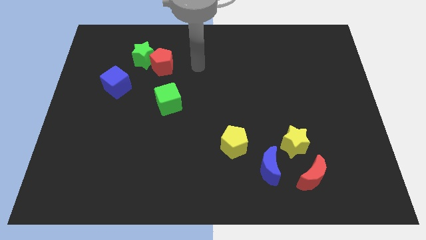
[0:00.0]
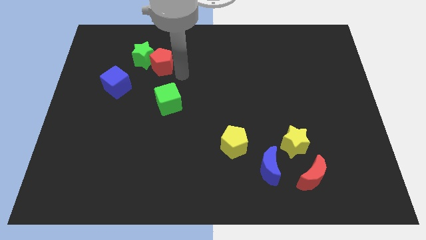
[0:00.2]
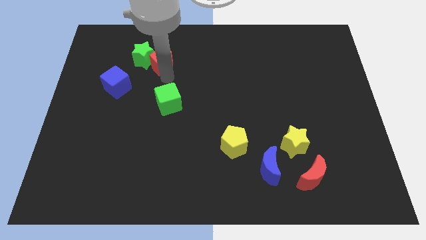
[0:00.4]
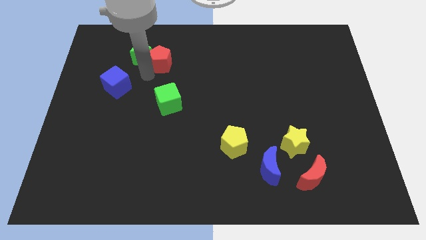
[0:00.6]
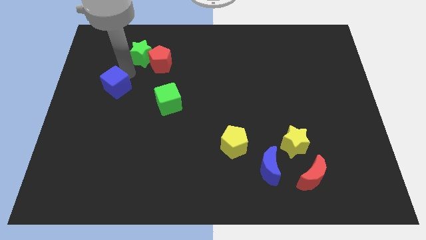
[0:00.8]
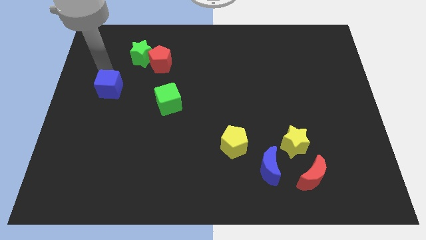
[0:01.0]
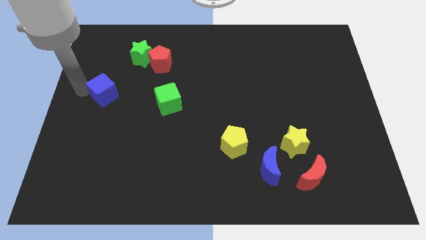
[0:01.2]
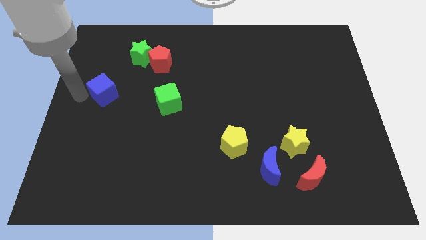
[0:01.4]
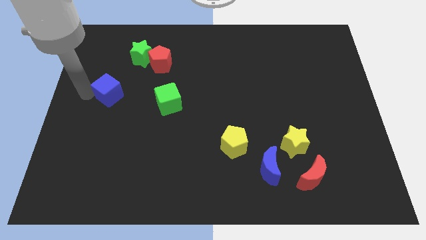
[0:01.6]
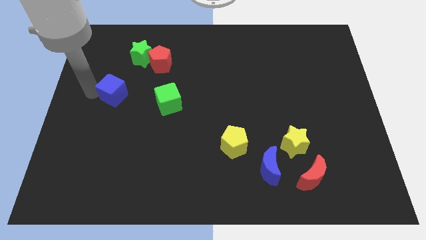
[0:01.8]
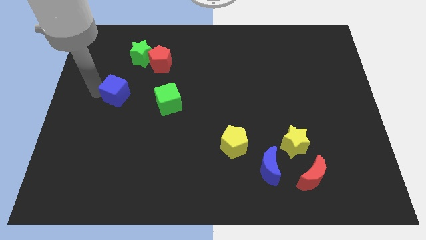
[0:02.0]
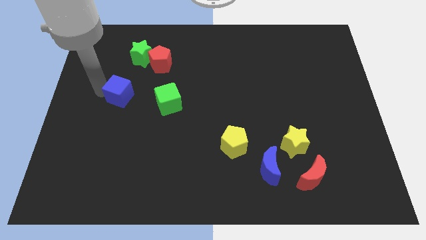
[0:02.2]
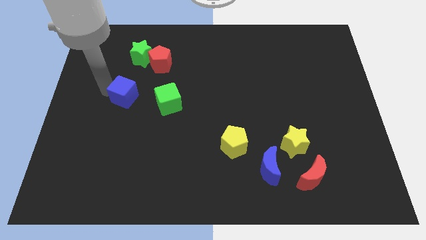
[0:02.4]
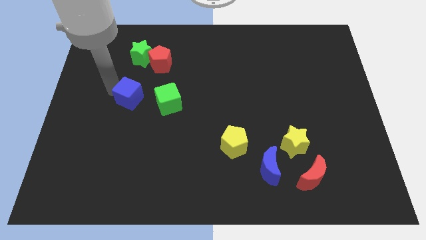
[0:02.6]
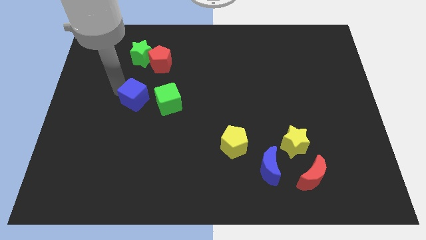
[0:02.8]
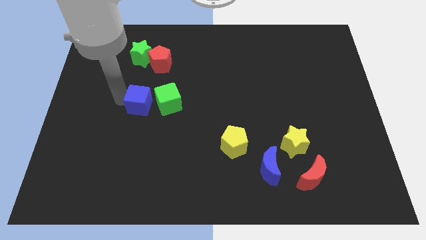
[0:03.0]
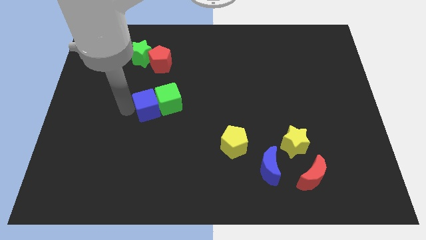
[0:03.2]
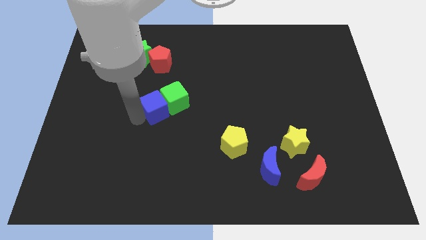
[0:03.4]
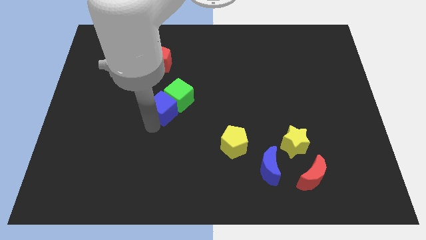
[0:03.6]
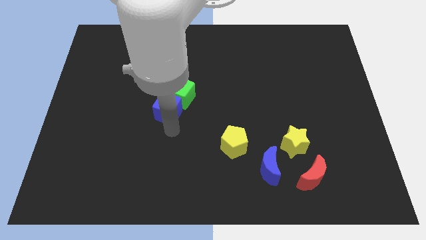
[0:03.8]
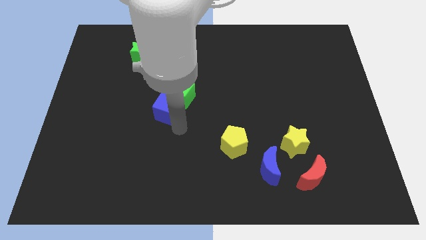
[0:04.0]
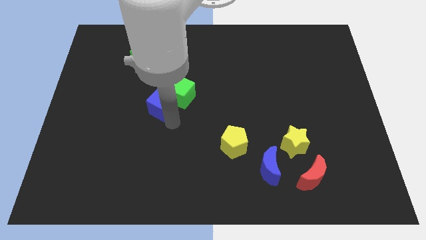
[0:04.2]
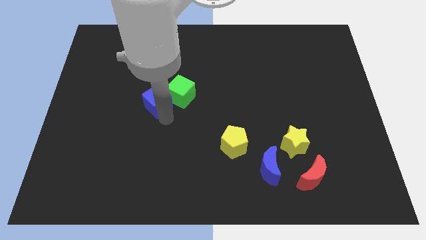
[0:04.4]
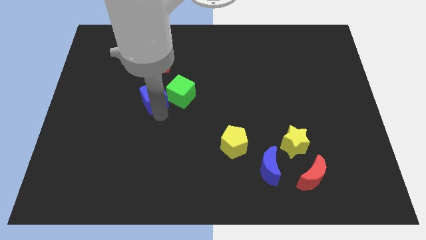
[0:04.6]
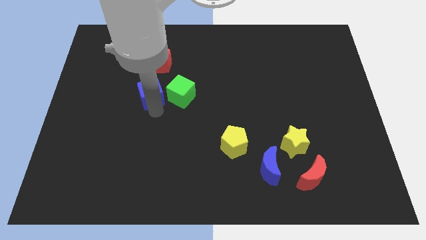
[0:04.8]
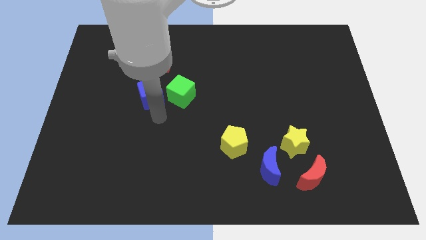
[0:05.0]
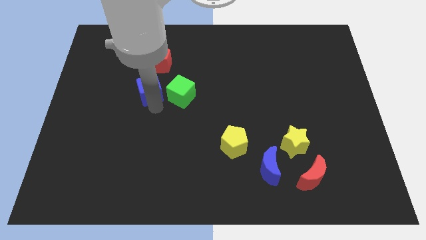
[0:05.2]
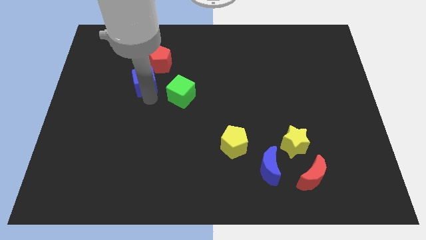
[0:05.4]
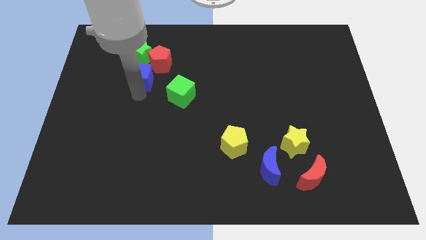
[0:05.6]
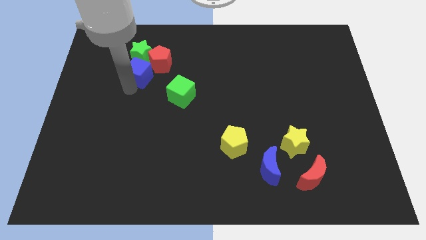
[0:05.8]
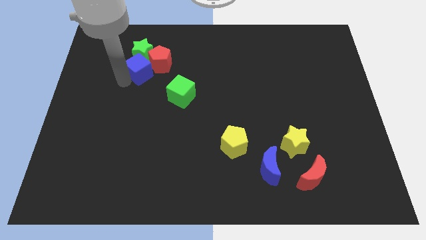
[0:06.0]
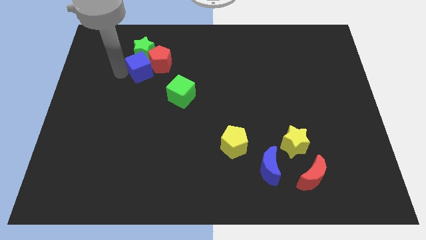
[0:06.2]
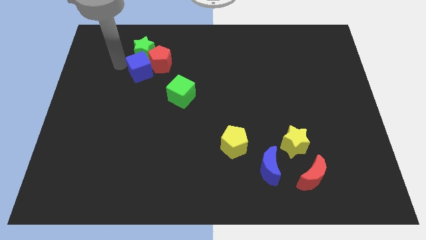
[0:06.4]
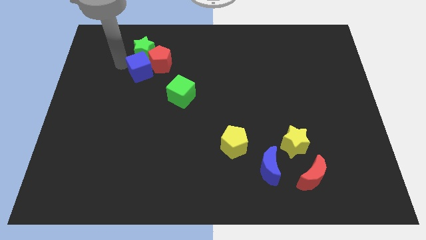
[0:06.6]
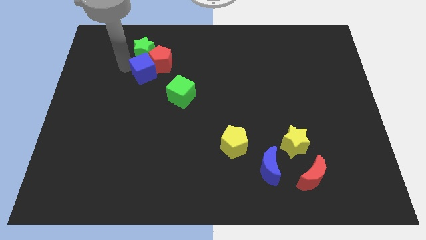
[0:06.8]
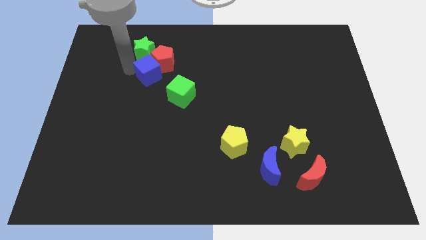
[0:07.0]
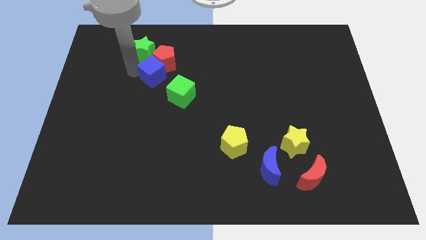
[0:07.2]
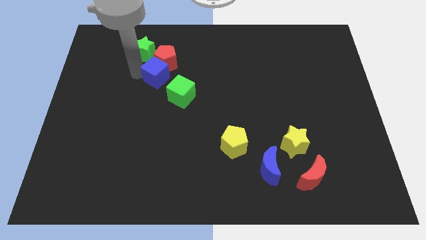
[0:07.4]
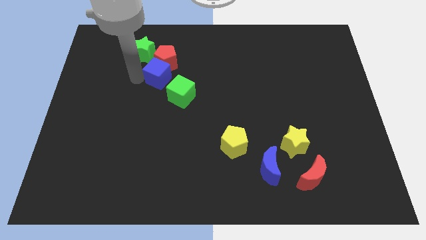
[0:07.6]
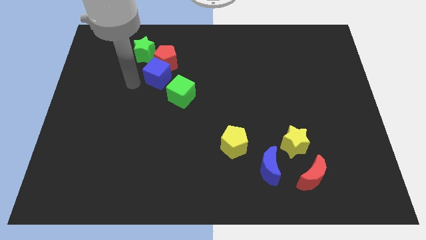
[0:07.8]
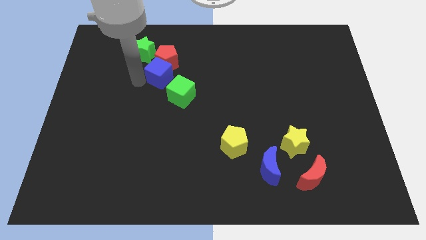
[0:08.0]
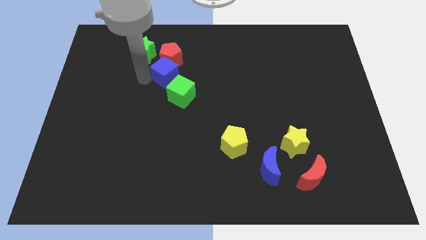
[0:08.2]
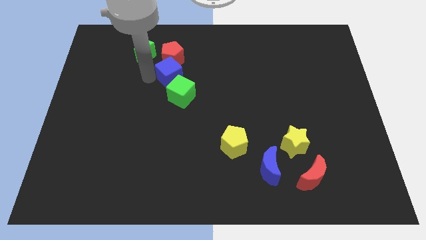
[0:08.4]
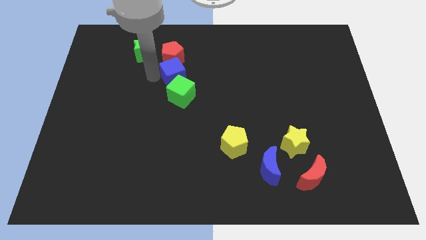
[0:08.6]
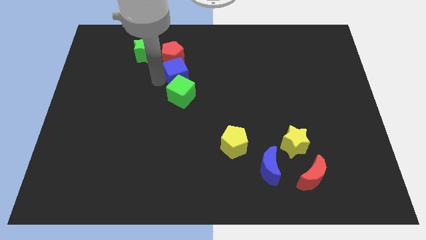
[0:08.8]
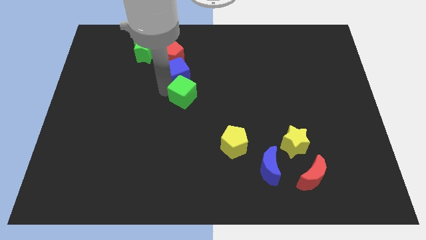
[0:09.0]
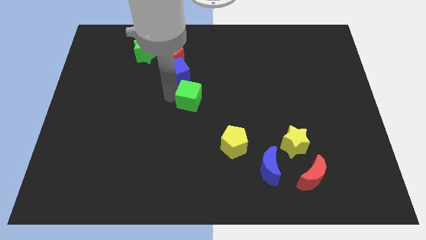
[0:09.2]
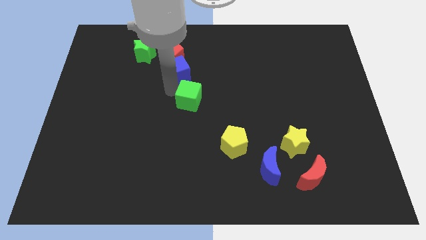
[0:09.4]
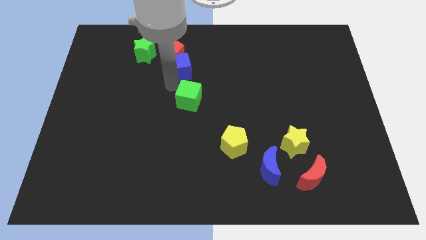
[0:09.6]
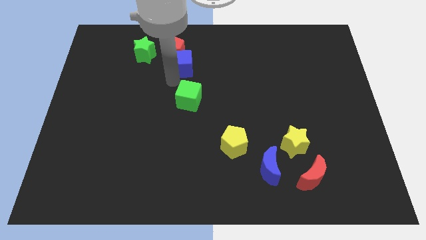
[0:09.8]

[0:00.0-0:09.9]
push the blue cube just right of the green star

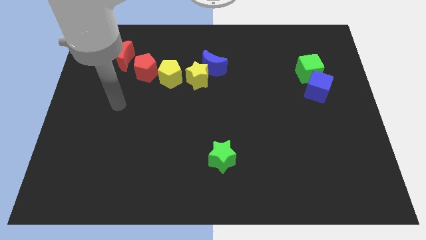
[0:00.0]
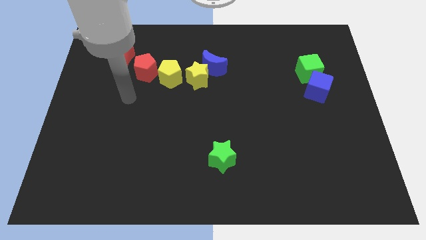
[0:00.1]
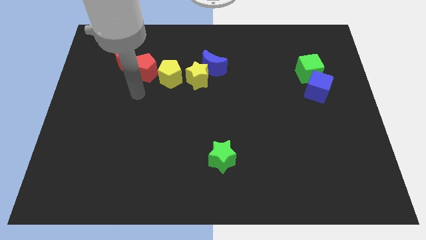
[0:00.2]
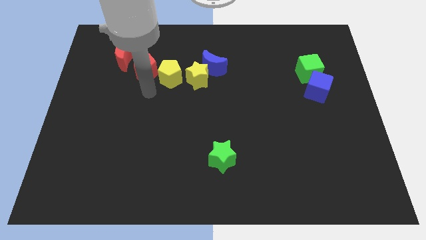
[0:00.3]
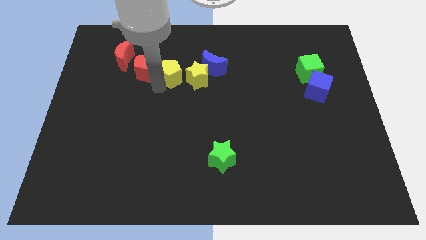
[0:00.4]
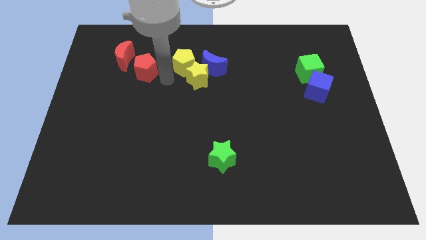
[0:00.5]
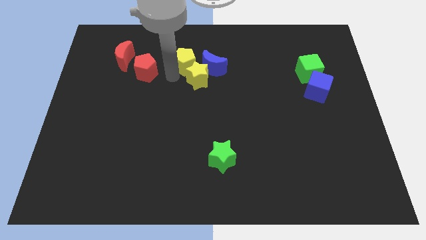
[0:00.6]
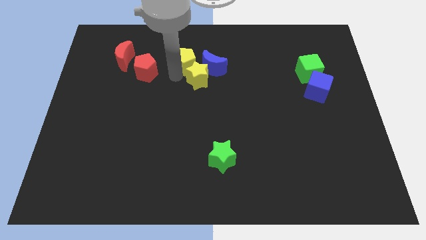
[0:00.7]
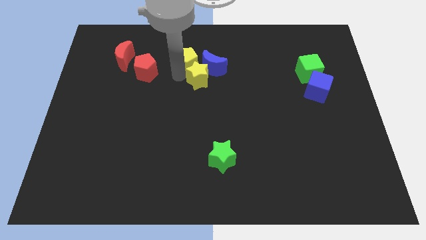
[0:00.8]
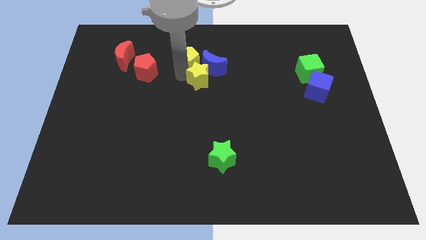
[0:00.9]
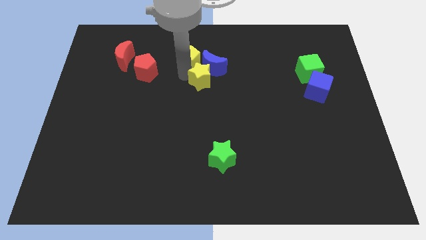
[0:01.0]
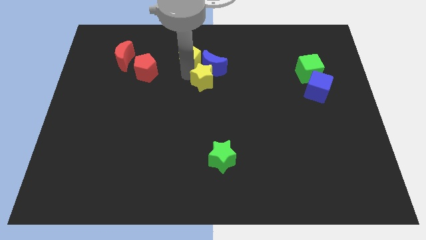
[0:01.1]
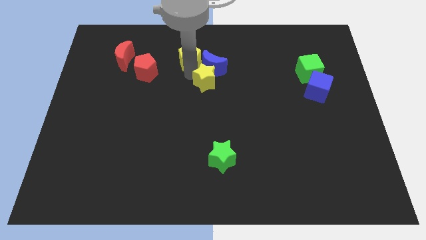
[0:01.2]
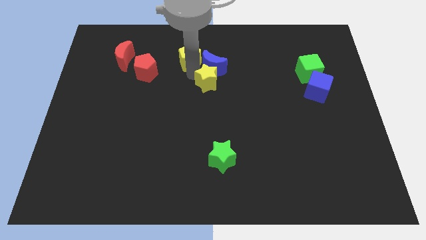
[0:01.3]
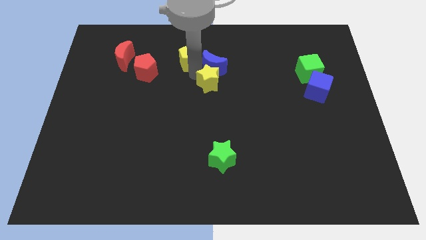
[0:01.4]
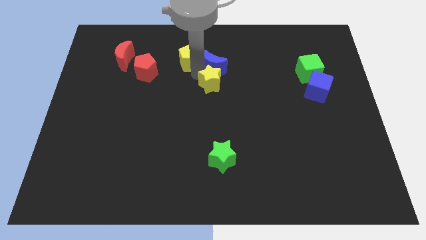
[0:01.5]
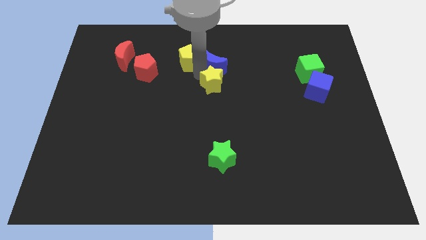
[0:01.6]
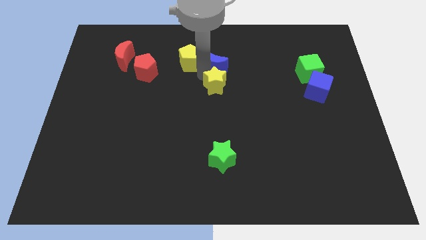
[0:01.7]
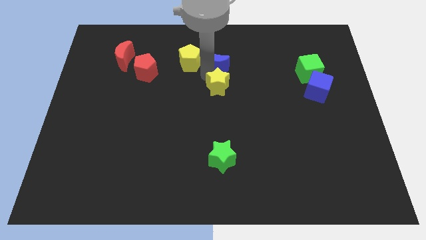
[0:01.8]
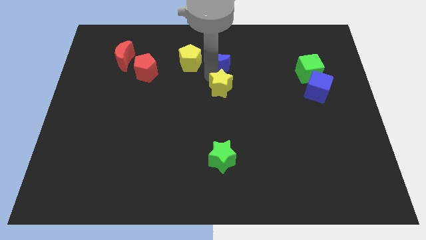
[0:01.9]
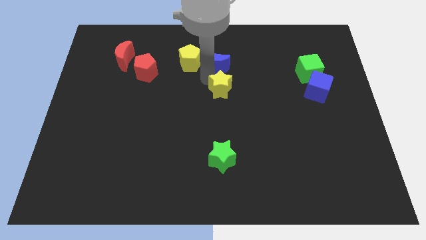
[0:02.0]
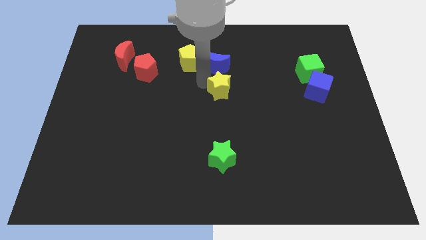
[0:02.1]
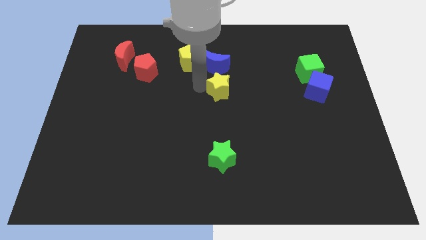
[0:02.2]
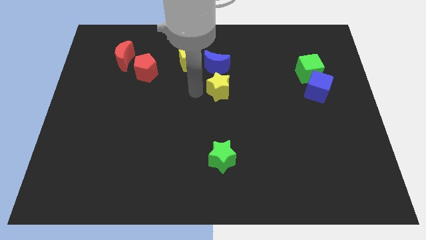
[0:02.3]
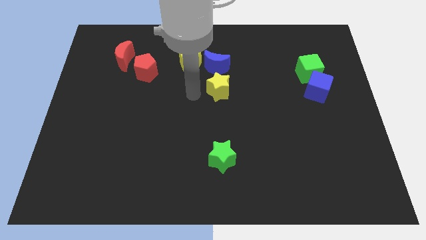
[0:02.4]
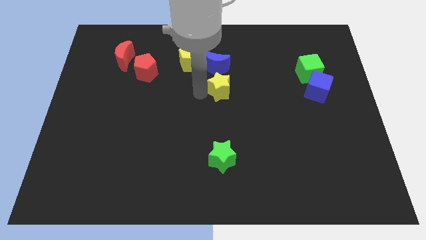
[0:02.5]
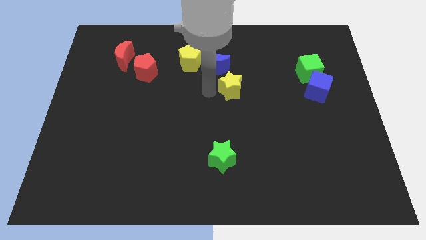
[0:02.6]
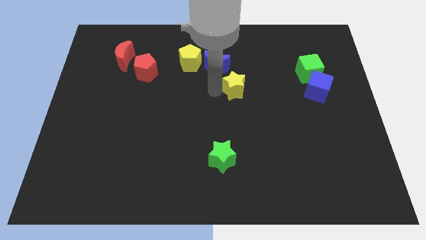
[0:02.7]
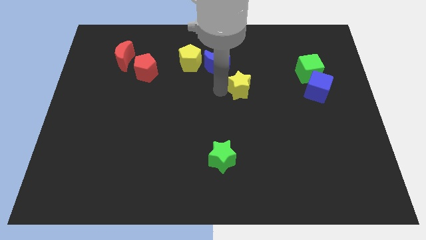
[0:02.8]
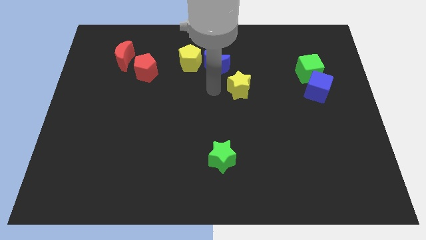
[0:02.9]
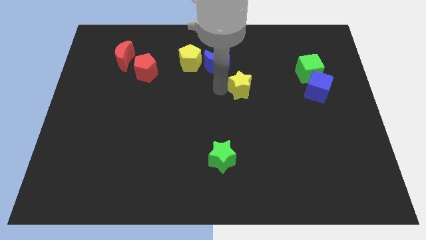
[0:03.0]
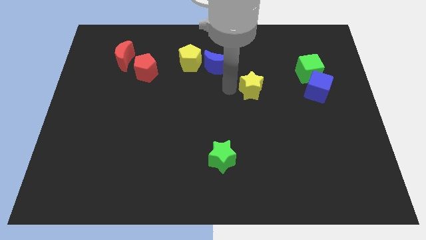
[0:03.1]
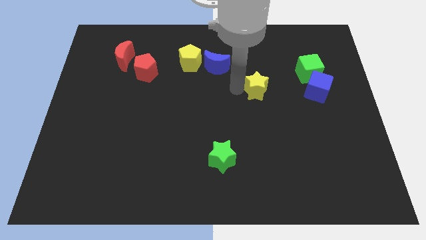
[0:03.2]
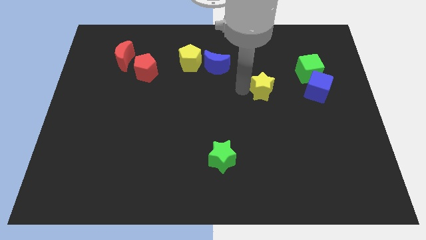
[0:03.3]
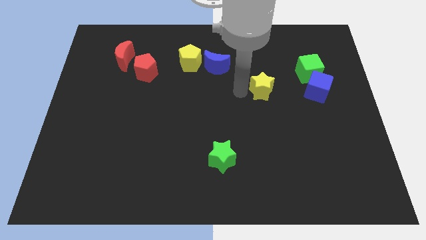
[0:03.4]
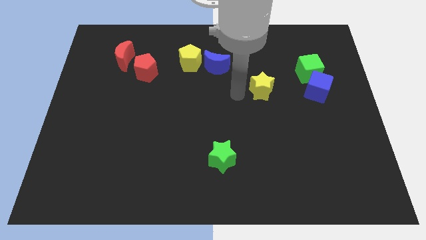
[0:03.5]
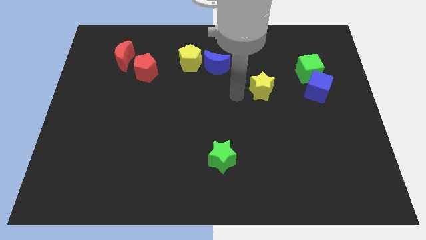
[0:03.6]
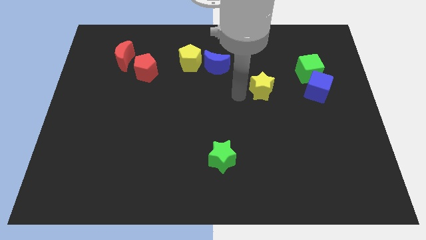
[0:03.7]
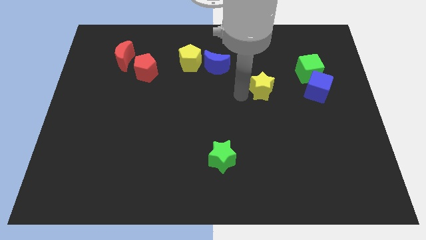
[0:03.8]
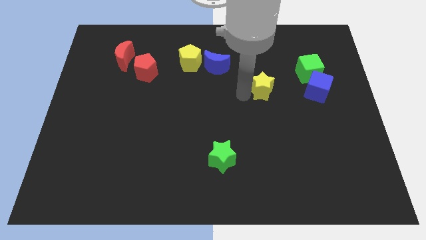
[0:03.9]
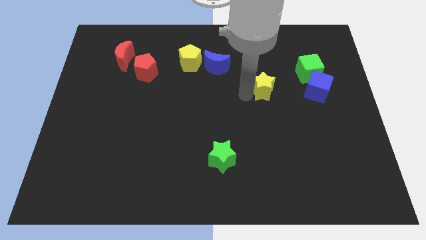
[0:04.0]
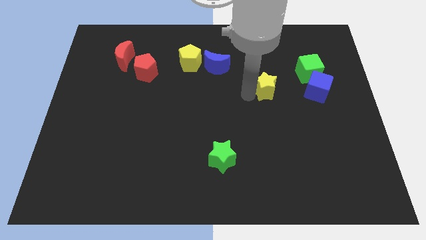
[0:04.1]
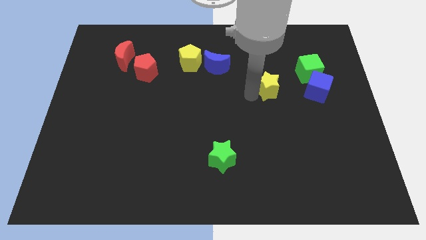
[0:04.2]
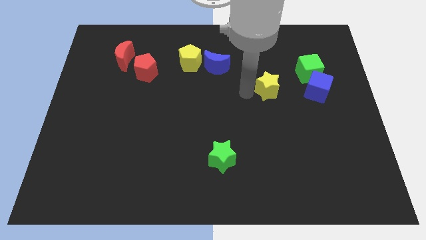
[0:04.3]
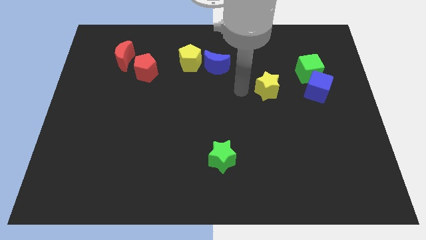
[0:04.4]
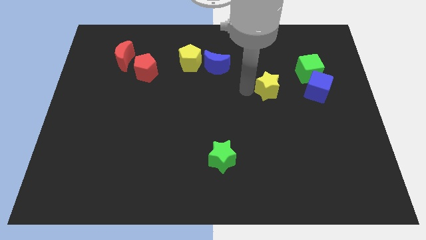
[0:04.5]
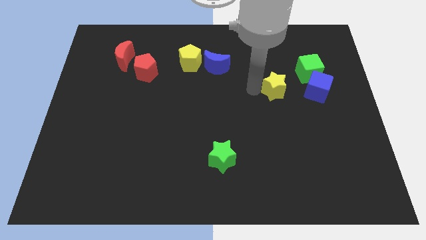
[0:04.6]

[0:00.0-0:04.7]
slide the yellow star to the bottom left of the green cube
